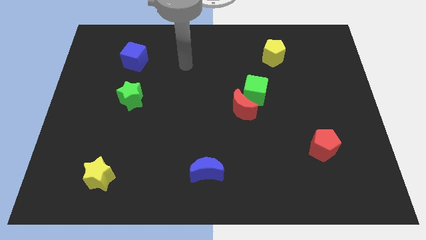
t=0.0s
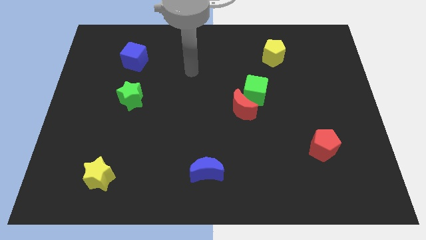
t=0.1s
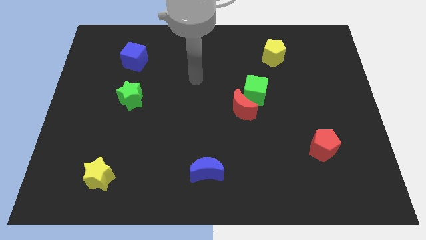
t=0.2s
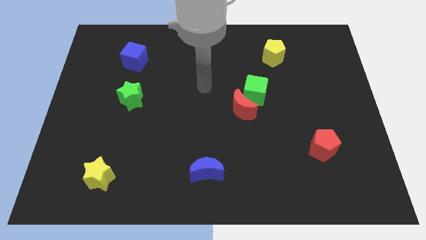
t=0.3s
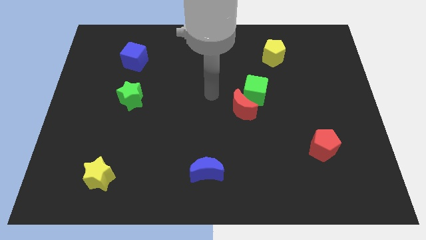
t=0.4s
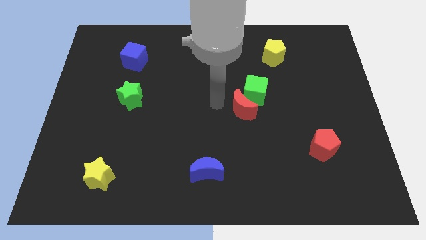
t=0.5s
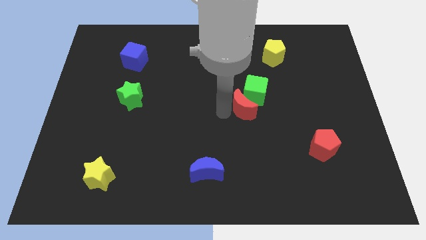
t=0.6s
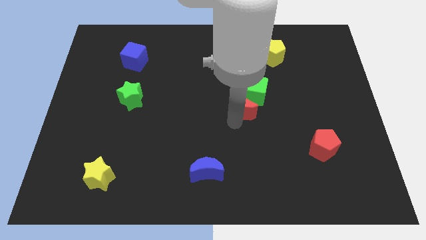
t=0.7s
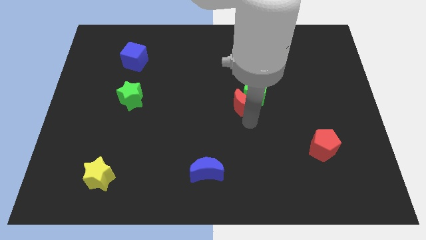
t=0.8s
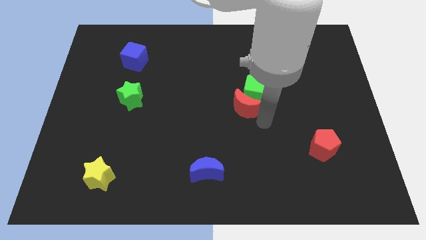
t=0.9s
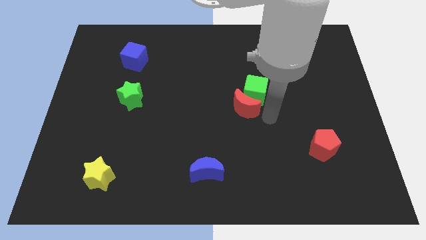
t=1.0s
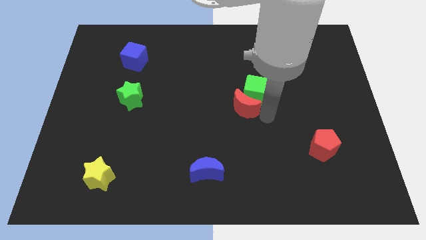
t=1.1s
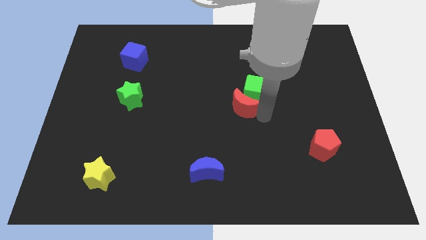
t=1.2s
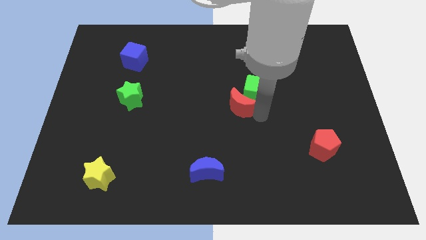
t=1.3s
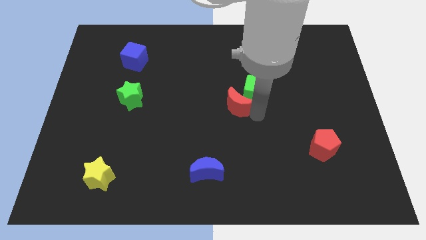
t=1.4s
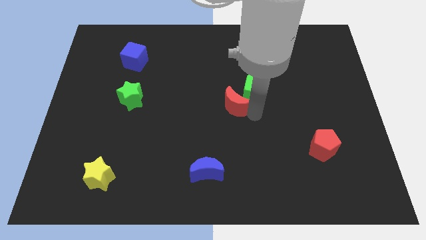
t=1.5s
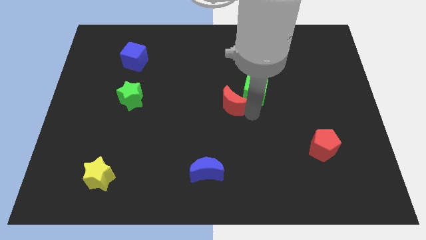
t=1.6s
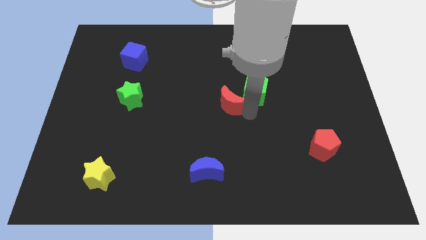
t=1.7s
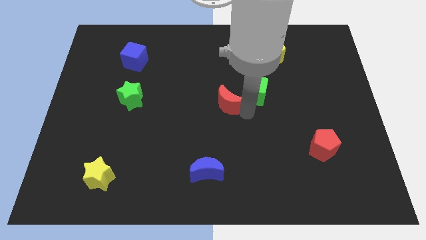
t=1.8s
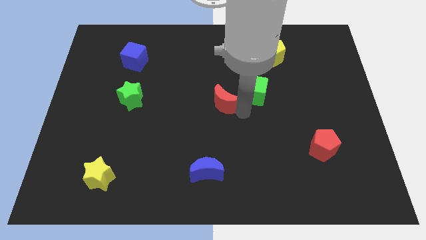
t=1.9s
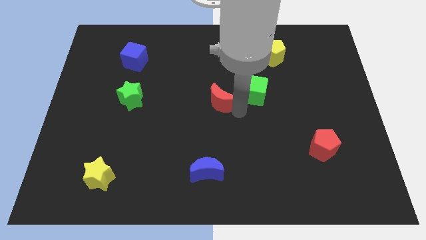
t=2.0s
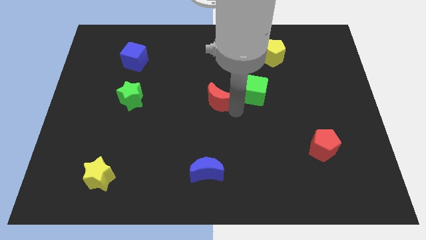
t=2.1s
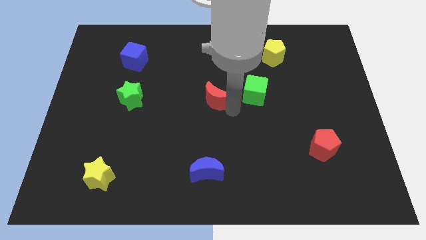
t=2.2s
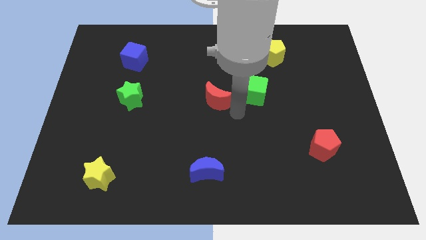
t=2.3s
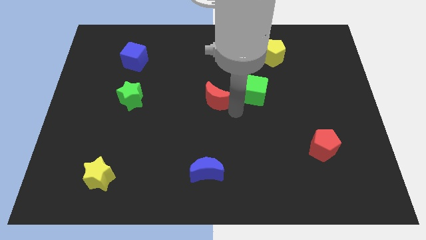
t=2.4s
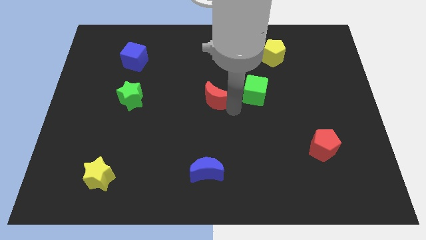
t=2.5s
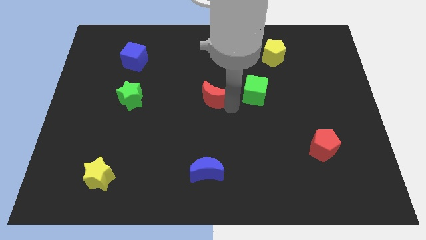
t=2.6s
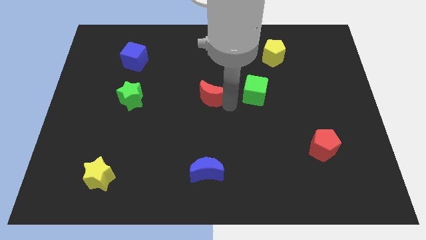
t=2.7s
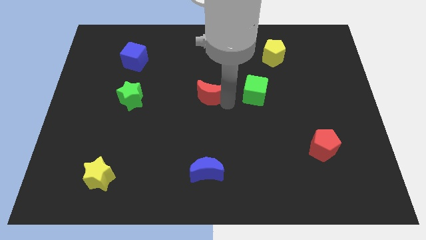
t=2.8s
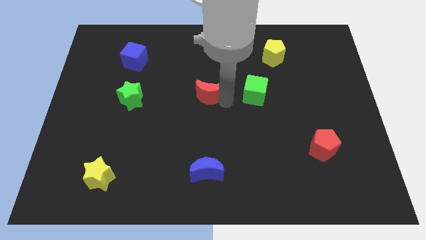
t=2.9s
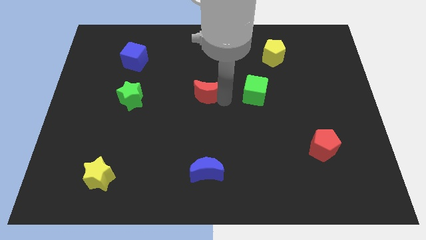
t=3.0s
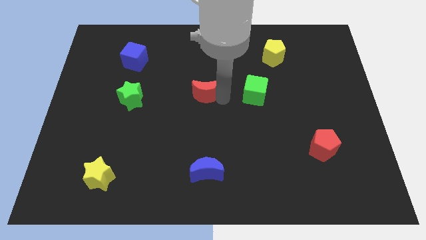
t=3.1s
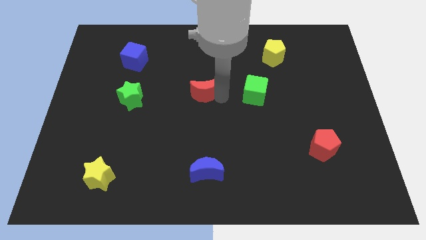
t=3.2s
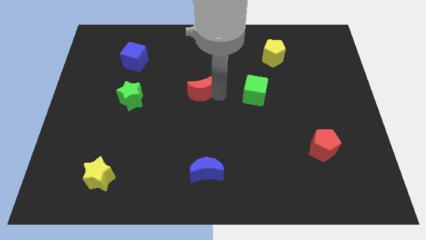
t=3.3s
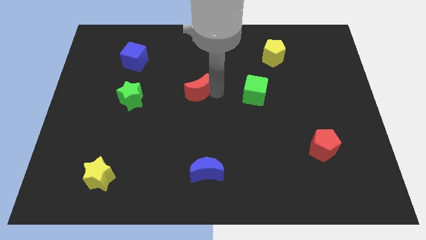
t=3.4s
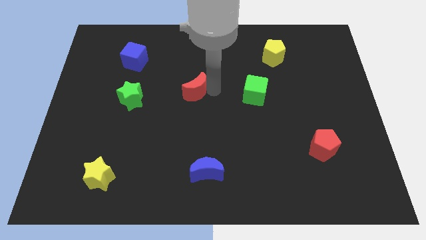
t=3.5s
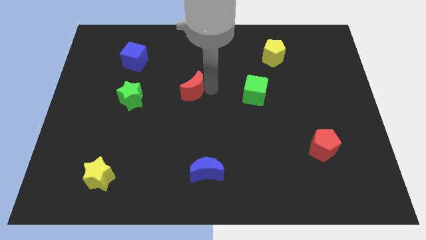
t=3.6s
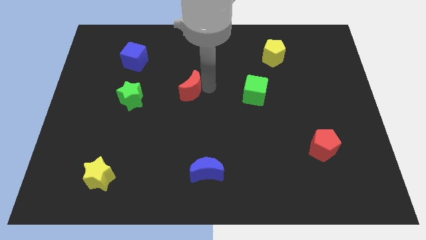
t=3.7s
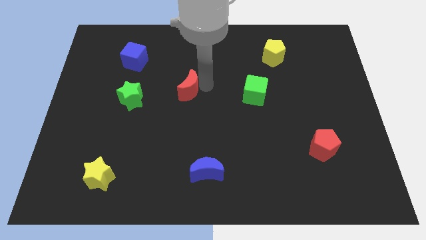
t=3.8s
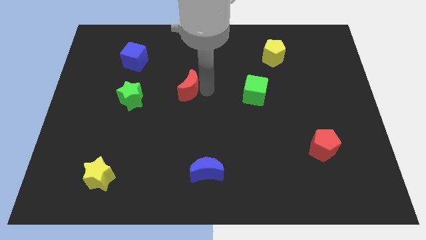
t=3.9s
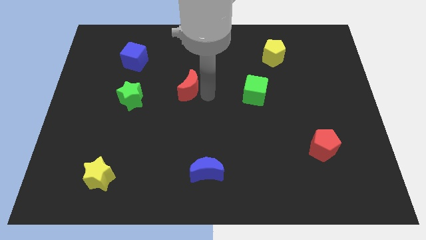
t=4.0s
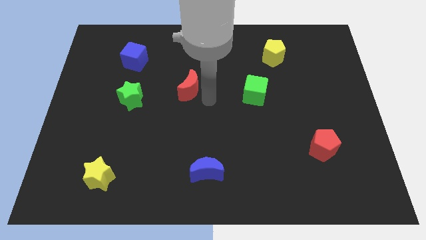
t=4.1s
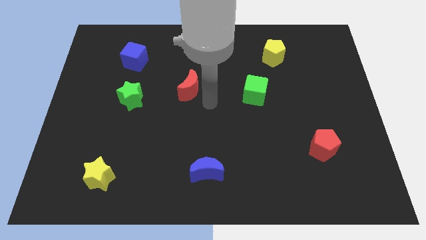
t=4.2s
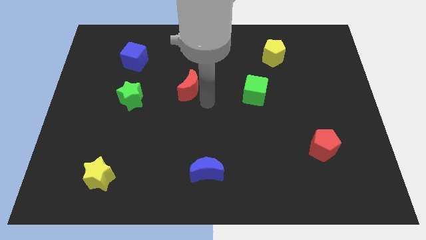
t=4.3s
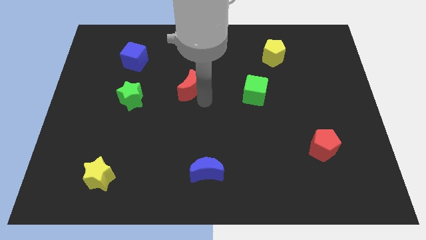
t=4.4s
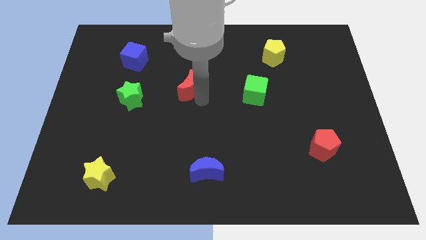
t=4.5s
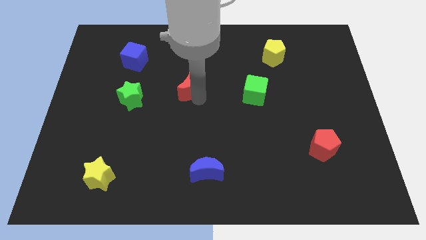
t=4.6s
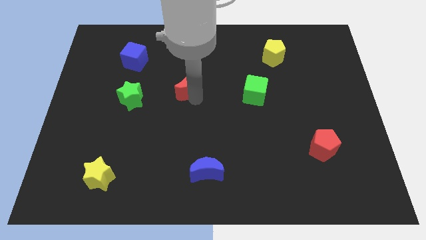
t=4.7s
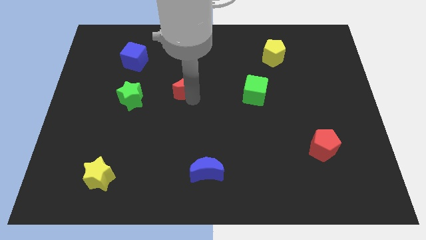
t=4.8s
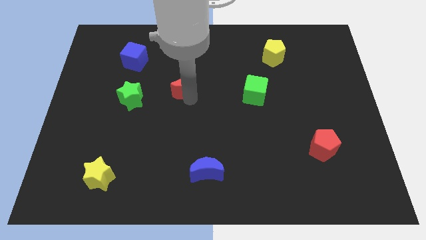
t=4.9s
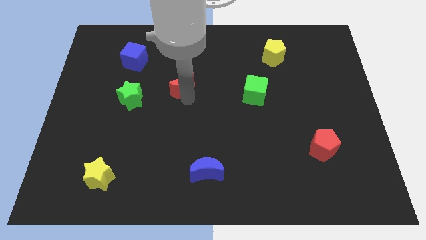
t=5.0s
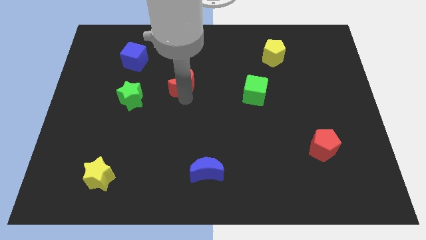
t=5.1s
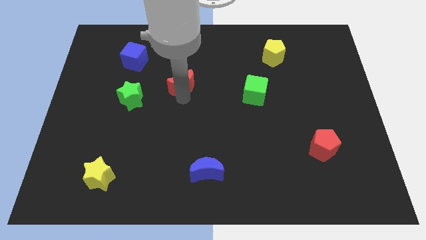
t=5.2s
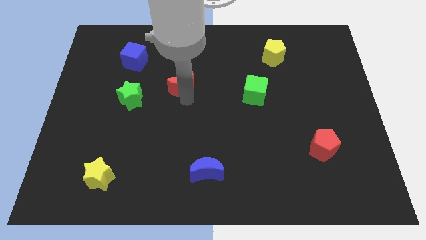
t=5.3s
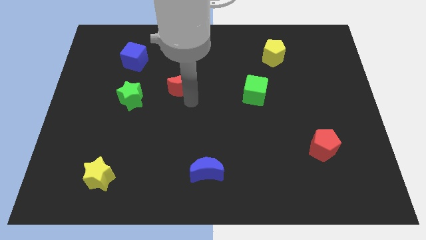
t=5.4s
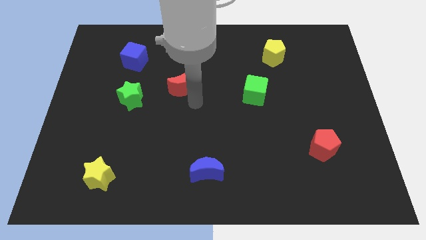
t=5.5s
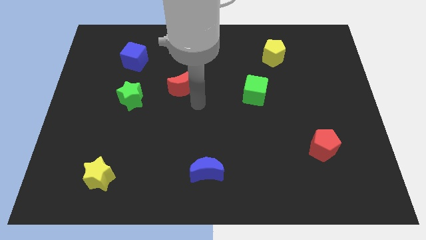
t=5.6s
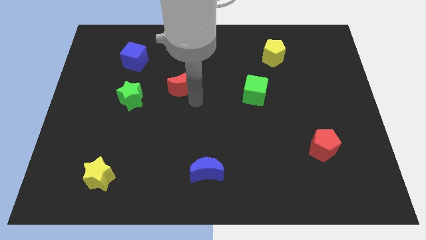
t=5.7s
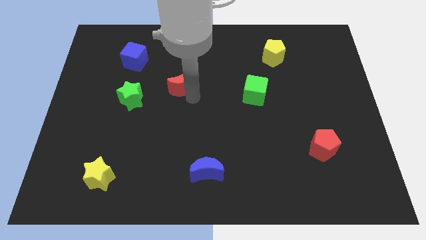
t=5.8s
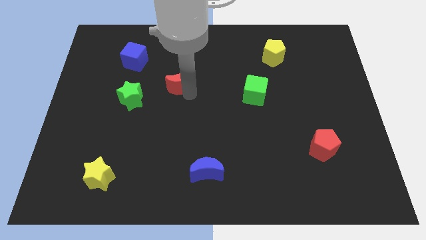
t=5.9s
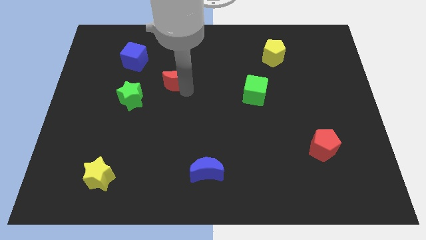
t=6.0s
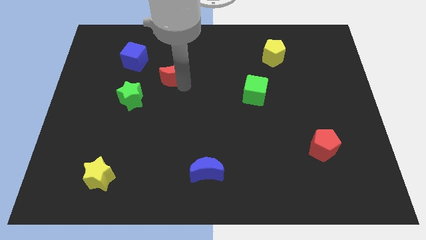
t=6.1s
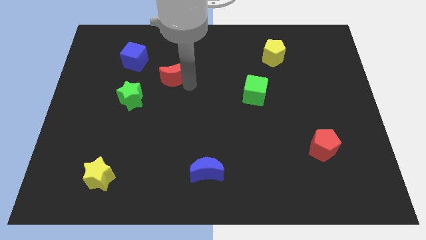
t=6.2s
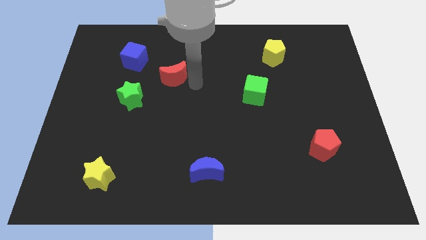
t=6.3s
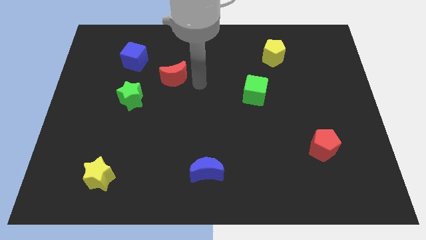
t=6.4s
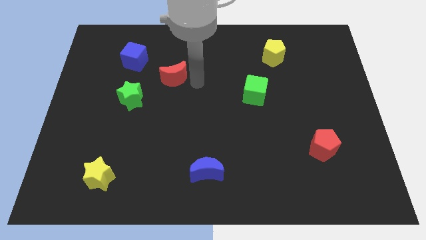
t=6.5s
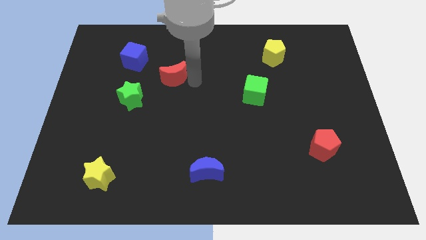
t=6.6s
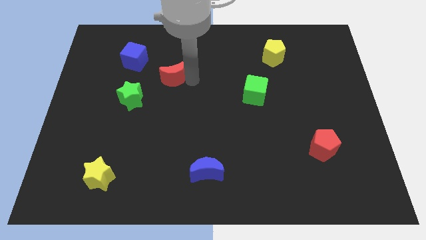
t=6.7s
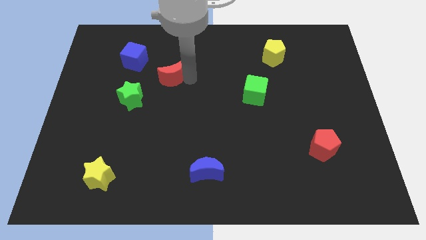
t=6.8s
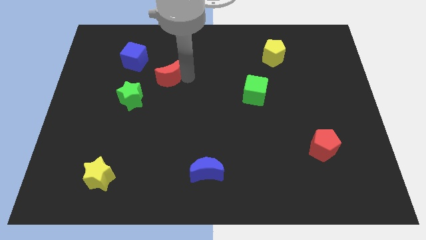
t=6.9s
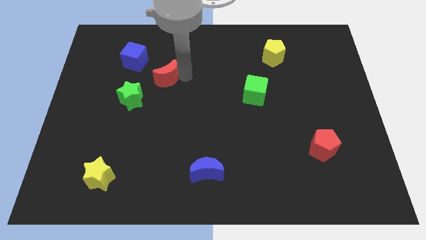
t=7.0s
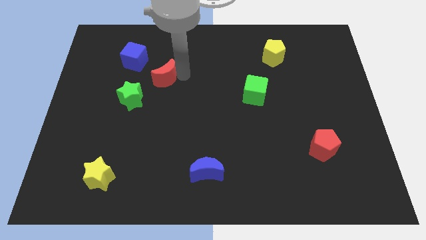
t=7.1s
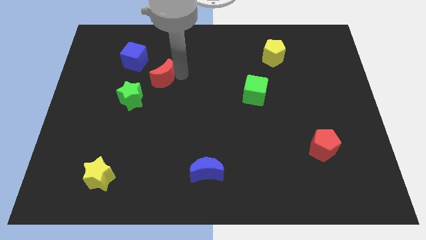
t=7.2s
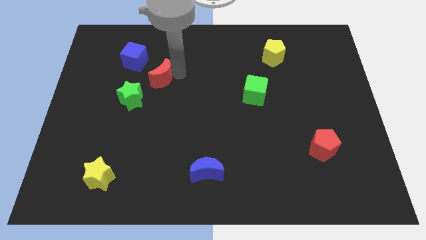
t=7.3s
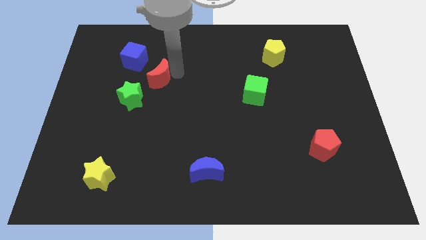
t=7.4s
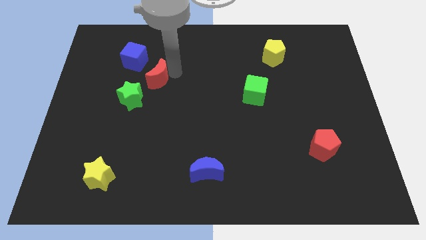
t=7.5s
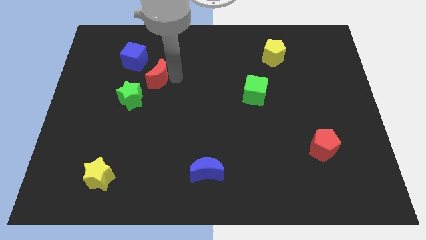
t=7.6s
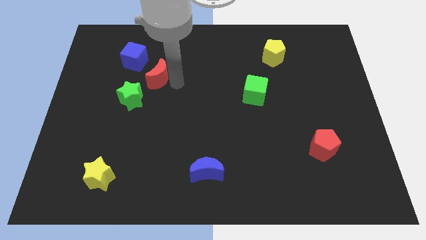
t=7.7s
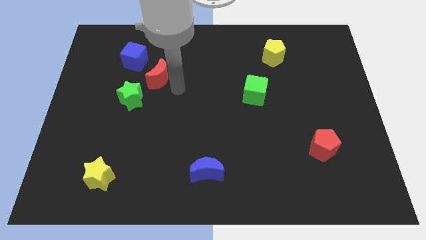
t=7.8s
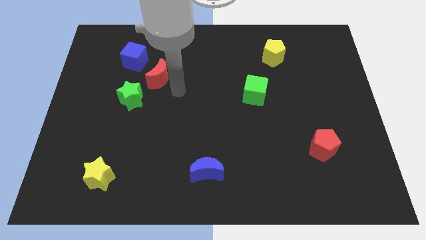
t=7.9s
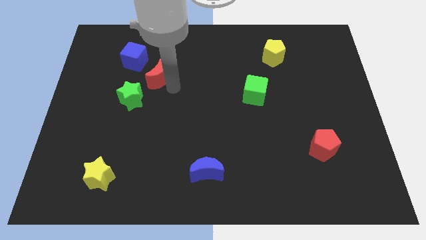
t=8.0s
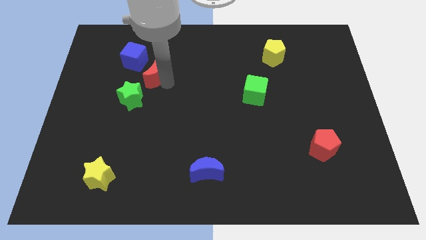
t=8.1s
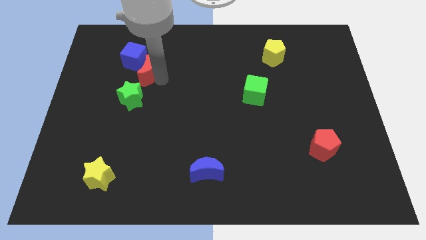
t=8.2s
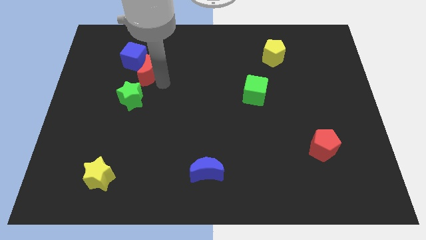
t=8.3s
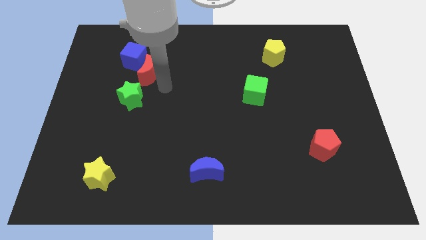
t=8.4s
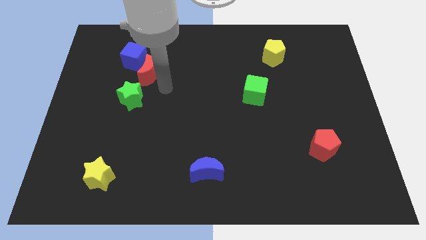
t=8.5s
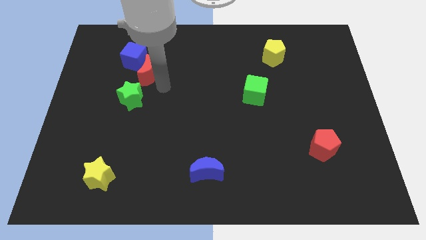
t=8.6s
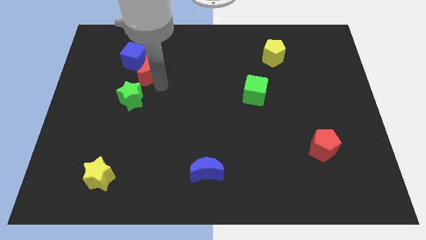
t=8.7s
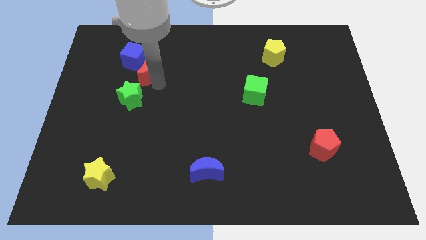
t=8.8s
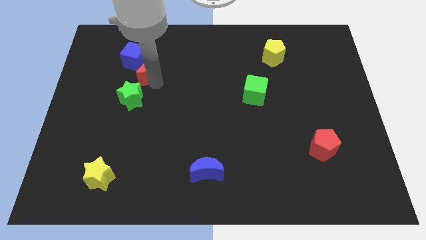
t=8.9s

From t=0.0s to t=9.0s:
slide the red moon next to the blue cube
